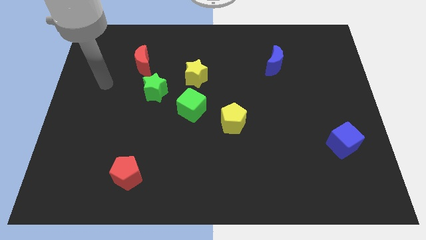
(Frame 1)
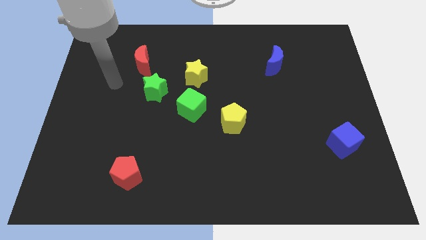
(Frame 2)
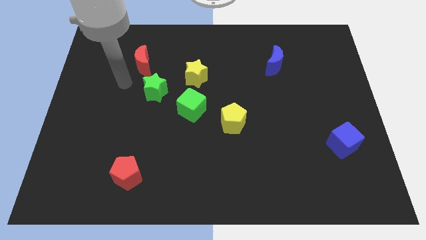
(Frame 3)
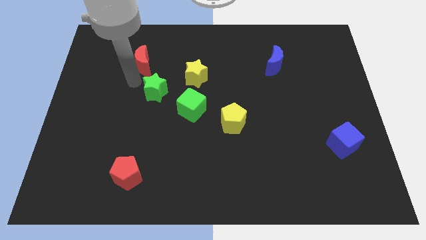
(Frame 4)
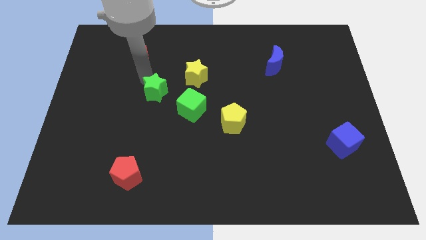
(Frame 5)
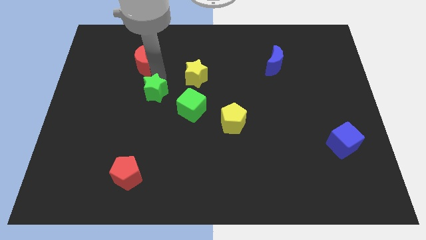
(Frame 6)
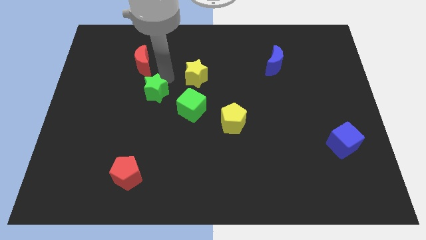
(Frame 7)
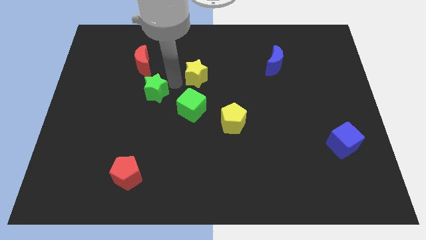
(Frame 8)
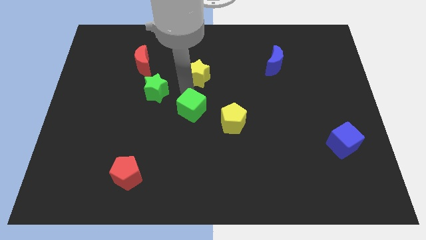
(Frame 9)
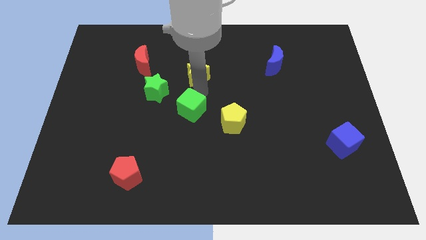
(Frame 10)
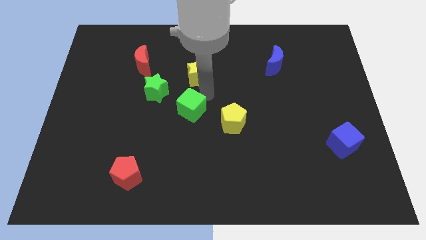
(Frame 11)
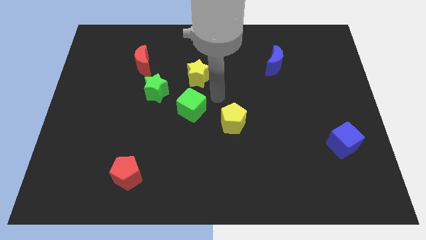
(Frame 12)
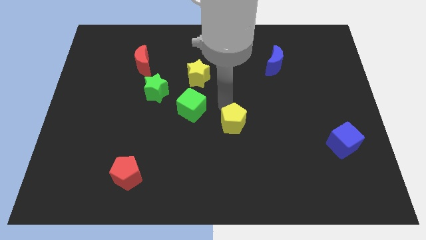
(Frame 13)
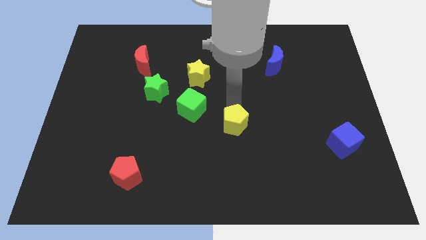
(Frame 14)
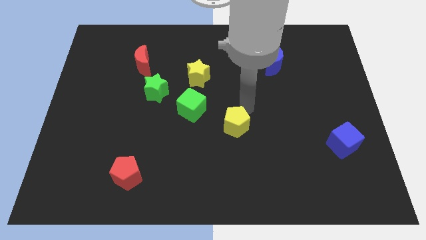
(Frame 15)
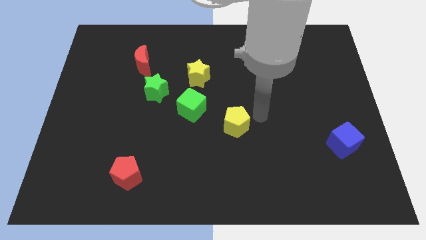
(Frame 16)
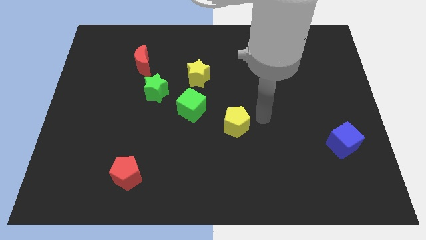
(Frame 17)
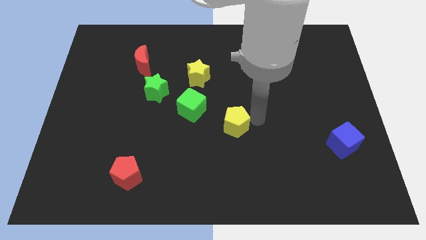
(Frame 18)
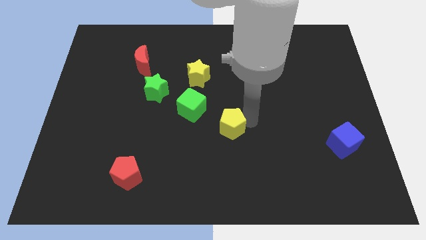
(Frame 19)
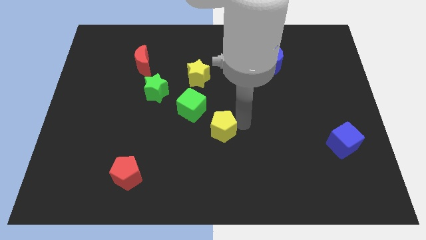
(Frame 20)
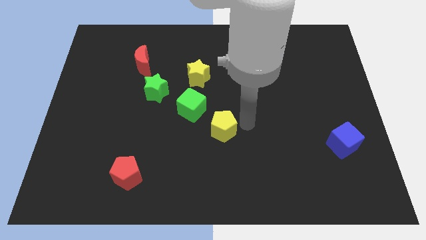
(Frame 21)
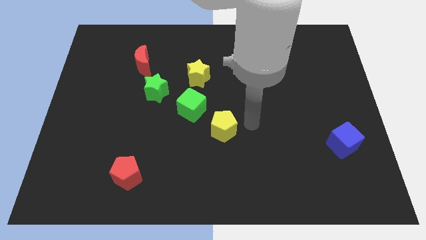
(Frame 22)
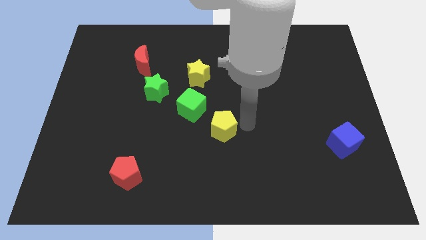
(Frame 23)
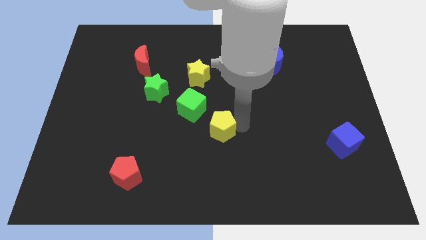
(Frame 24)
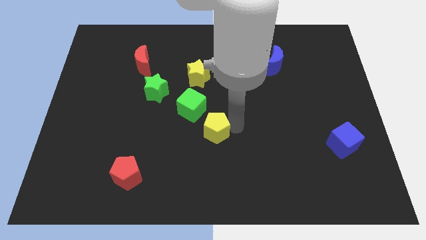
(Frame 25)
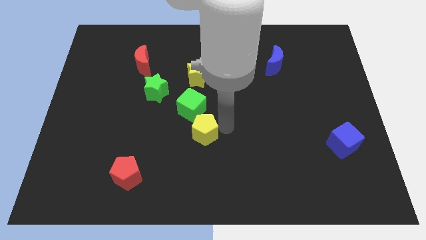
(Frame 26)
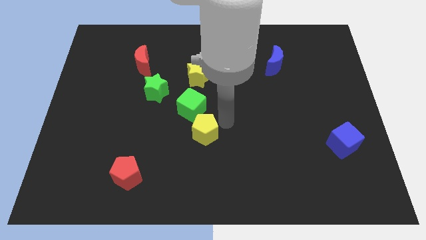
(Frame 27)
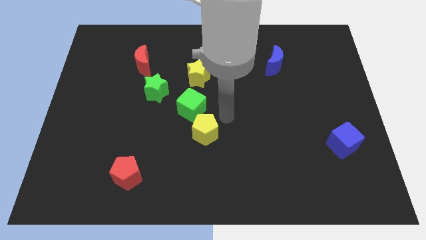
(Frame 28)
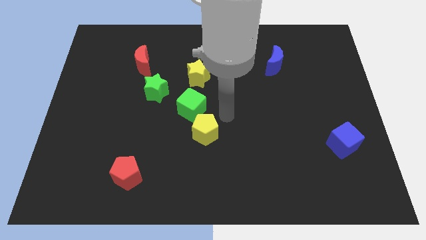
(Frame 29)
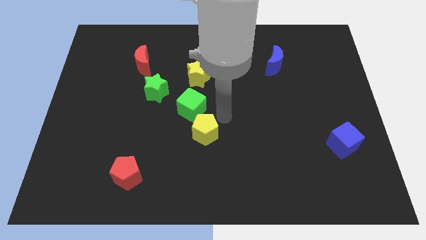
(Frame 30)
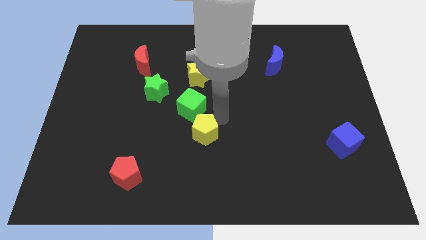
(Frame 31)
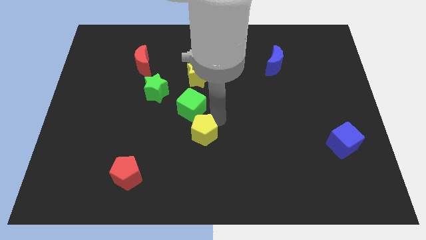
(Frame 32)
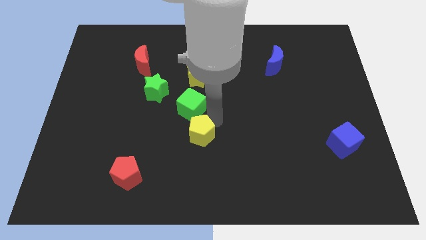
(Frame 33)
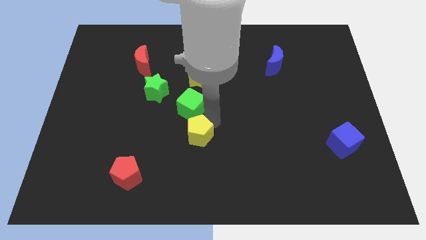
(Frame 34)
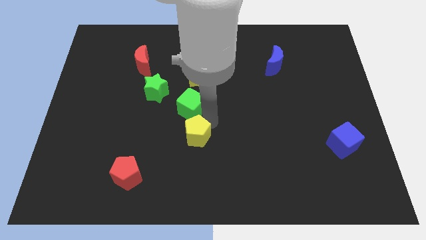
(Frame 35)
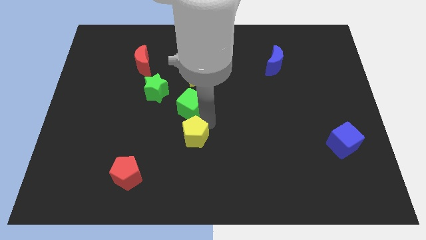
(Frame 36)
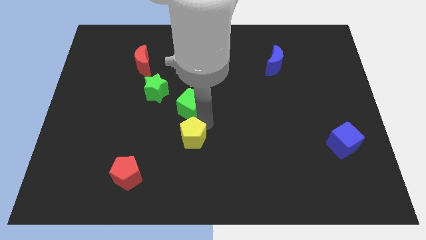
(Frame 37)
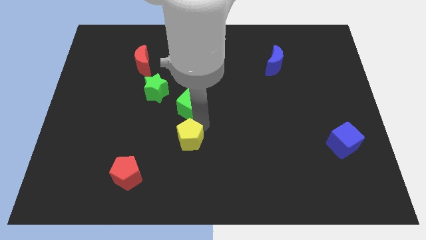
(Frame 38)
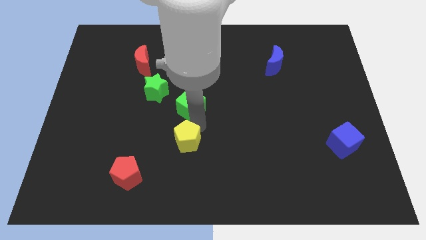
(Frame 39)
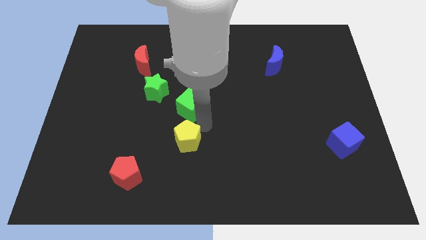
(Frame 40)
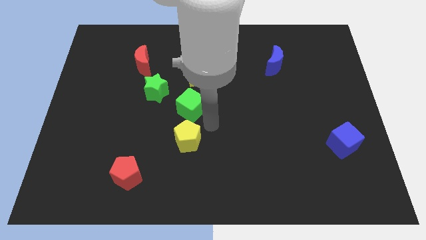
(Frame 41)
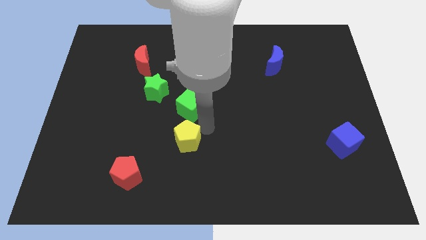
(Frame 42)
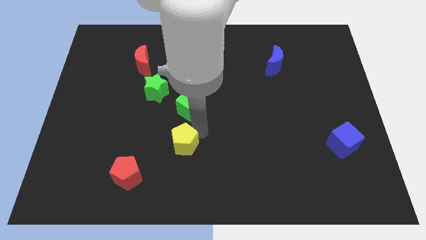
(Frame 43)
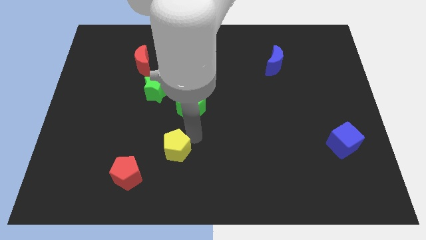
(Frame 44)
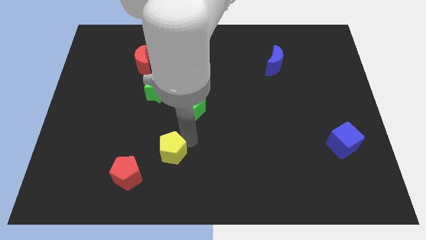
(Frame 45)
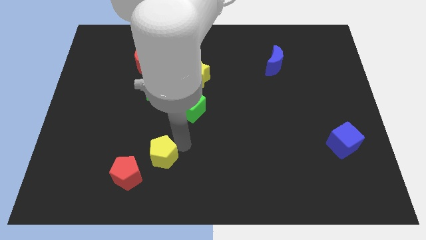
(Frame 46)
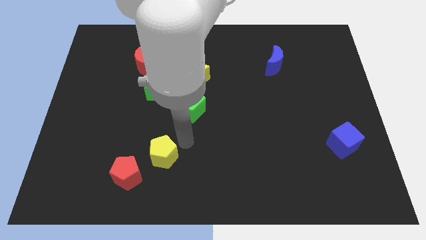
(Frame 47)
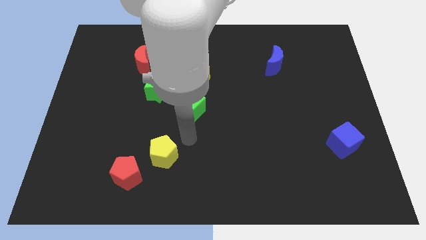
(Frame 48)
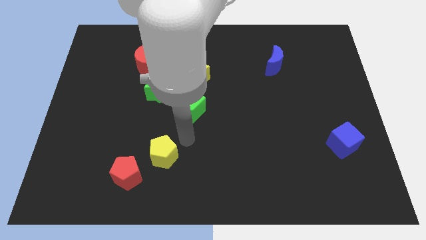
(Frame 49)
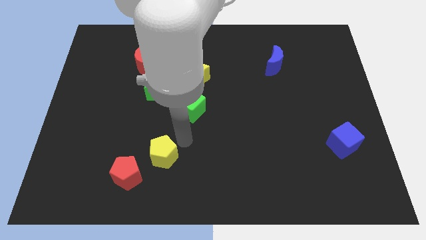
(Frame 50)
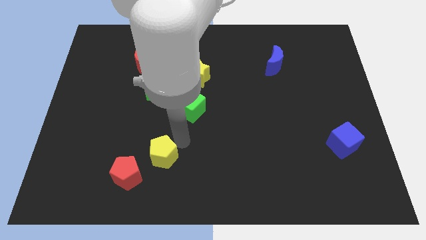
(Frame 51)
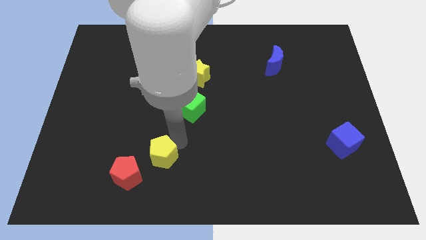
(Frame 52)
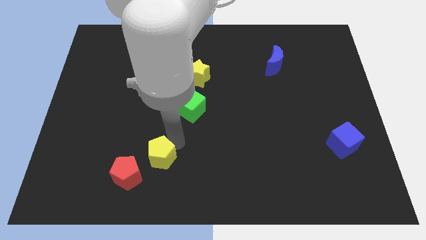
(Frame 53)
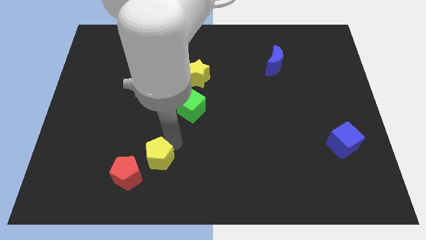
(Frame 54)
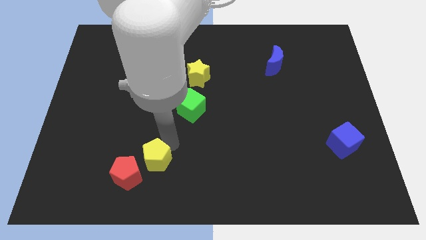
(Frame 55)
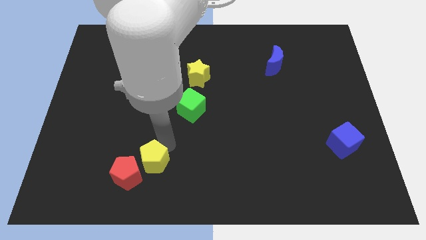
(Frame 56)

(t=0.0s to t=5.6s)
slide the yellow pentagon close to the red pentagon

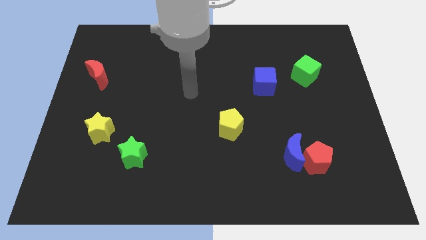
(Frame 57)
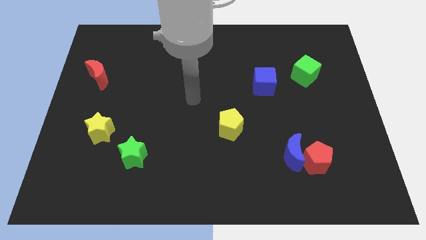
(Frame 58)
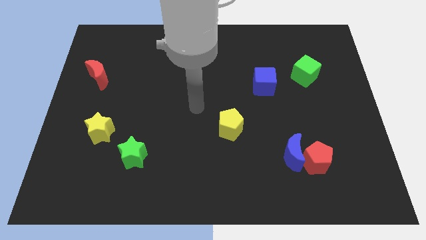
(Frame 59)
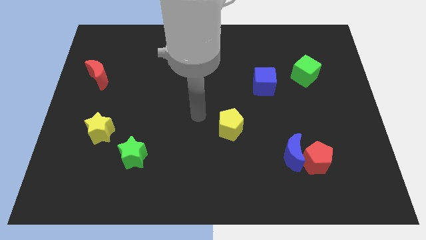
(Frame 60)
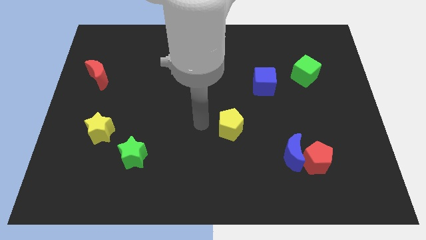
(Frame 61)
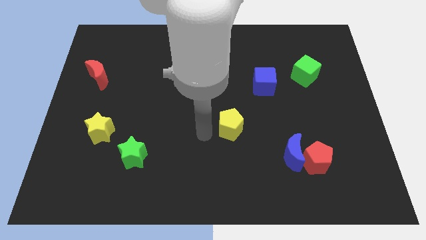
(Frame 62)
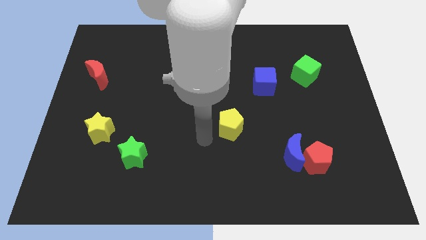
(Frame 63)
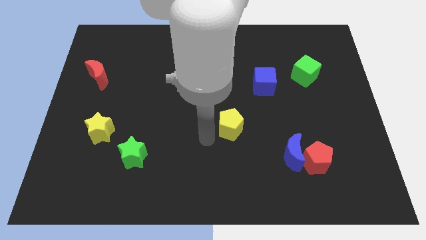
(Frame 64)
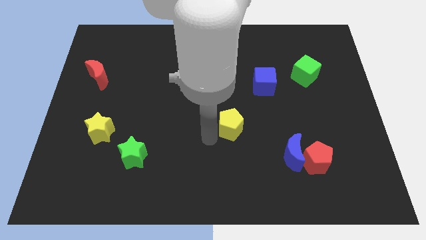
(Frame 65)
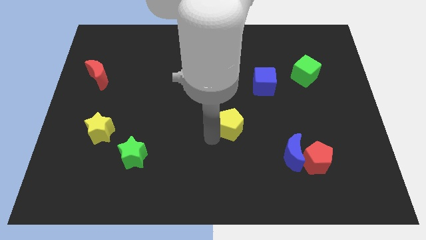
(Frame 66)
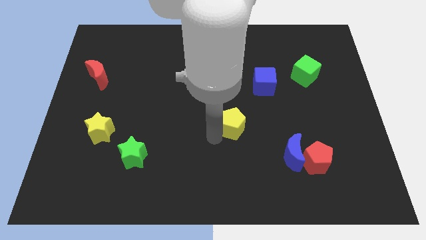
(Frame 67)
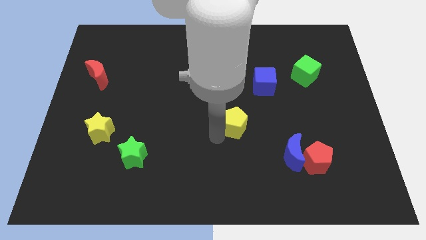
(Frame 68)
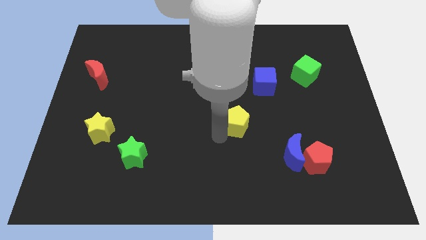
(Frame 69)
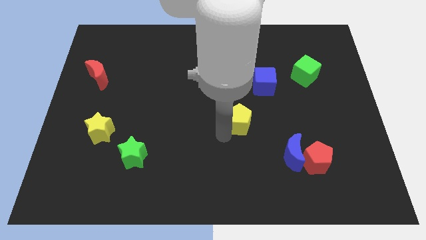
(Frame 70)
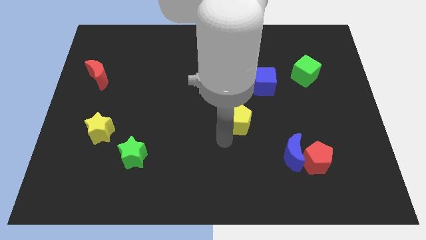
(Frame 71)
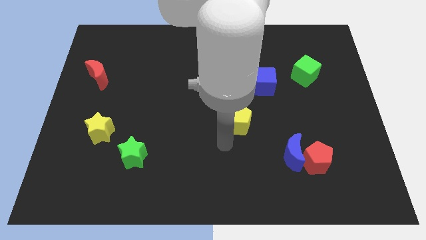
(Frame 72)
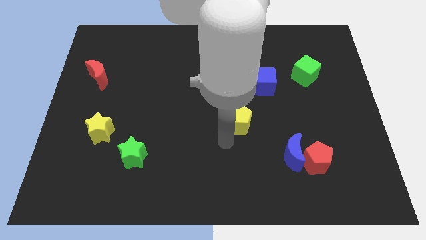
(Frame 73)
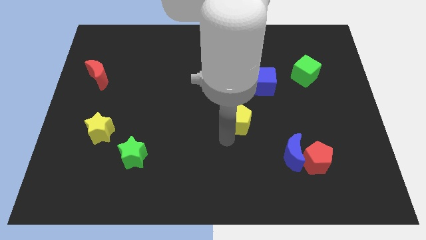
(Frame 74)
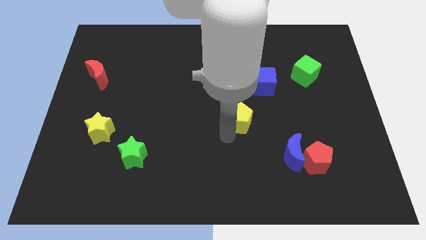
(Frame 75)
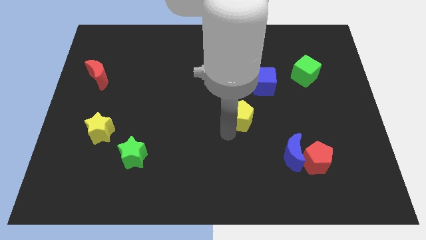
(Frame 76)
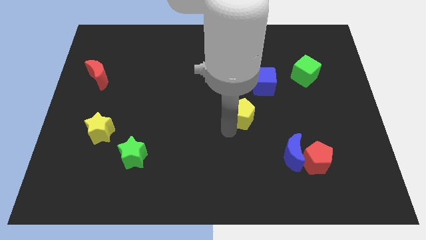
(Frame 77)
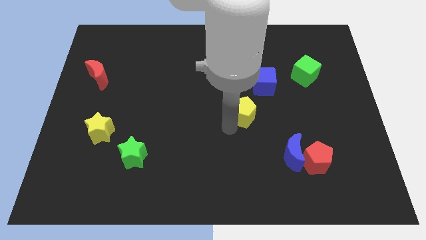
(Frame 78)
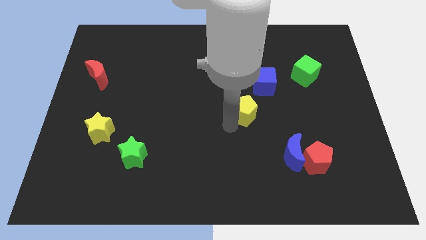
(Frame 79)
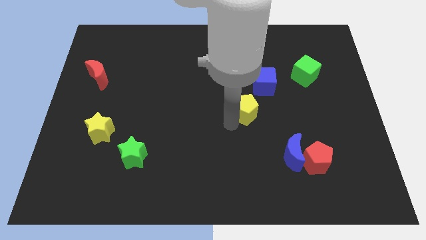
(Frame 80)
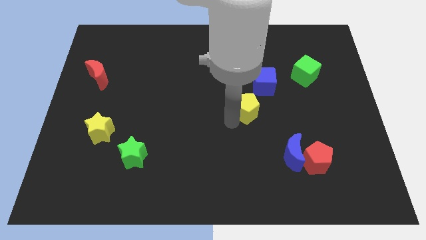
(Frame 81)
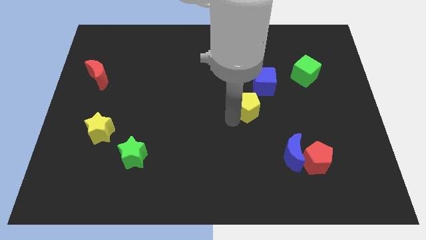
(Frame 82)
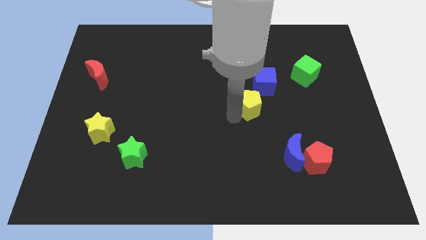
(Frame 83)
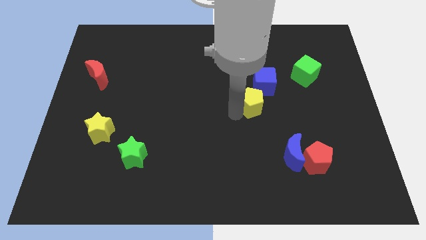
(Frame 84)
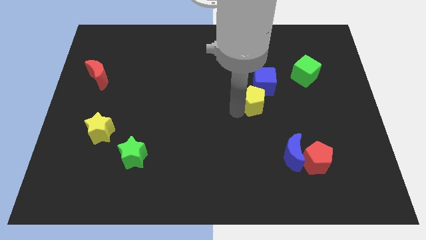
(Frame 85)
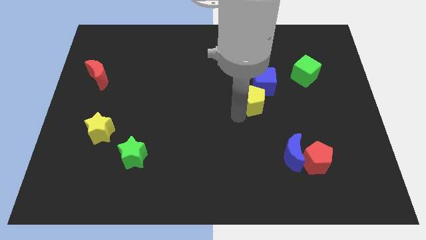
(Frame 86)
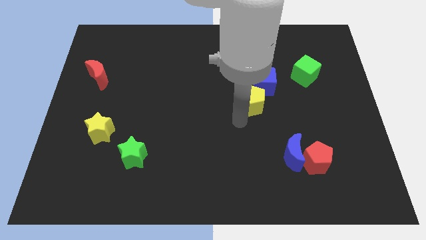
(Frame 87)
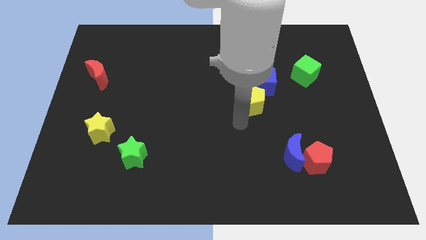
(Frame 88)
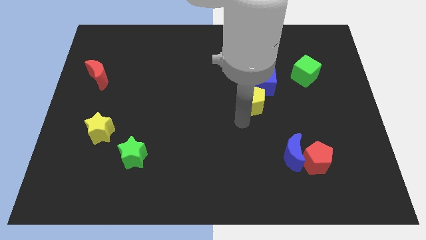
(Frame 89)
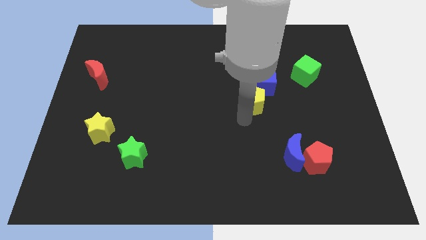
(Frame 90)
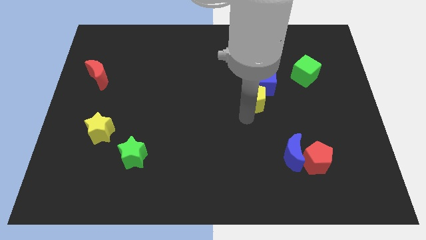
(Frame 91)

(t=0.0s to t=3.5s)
put the yellow pentagon to the blue cube
